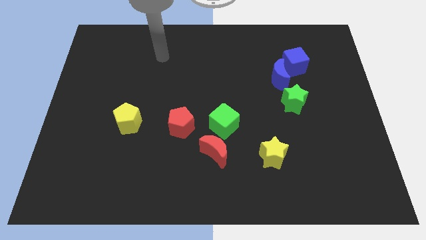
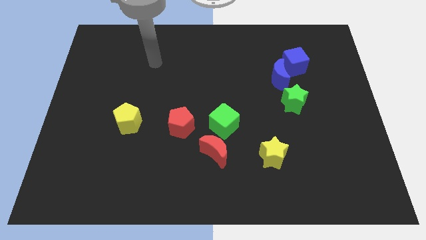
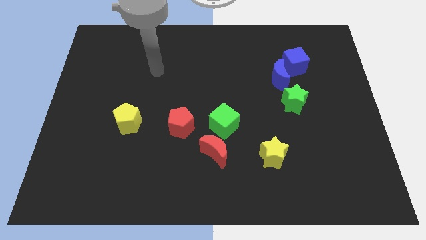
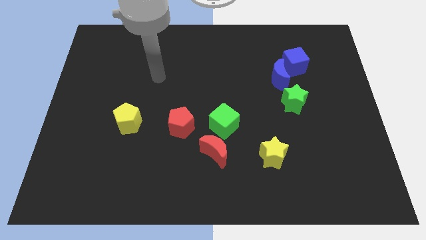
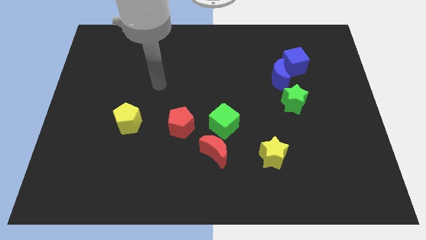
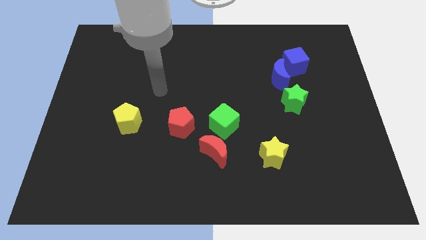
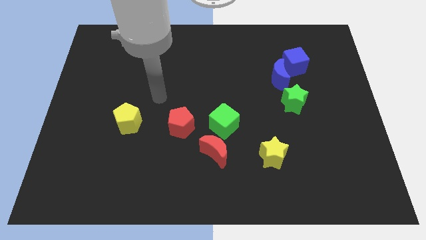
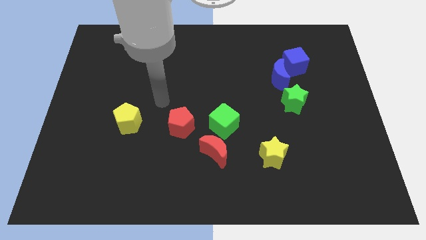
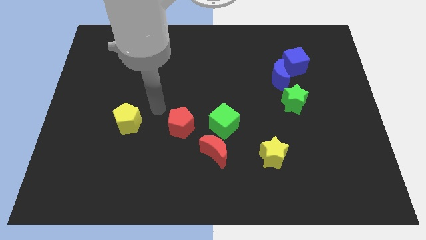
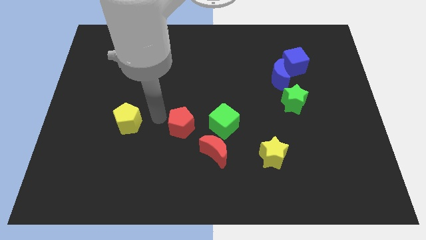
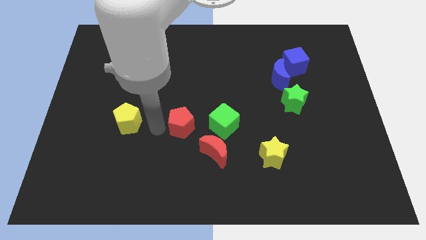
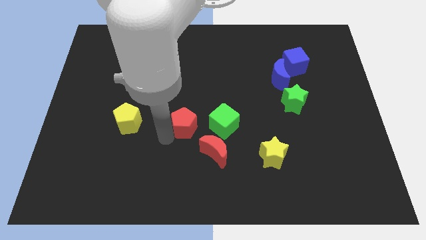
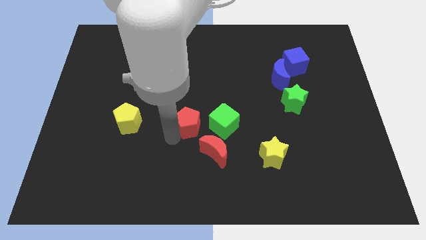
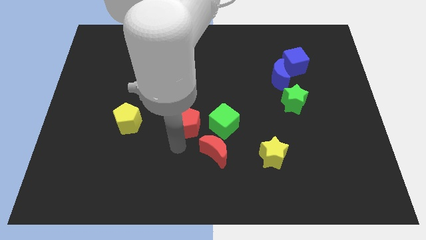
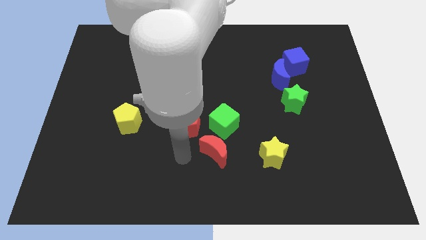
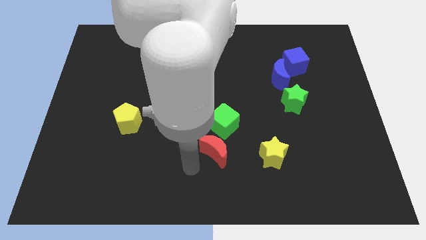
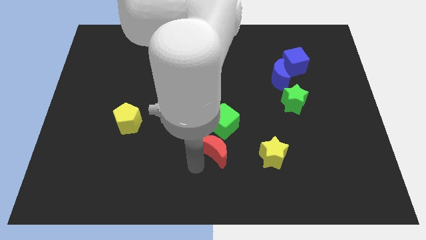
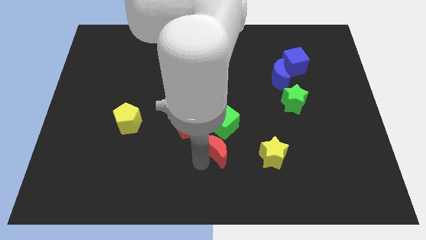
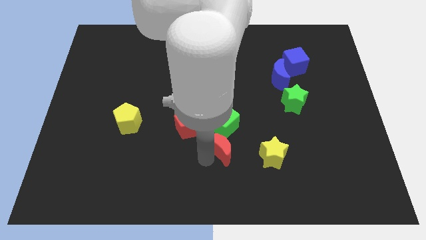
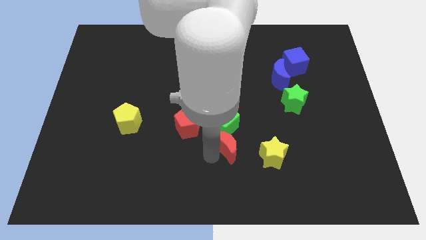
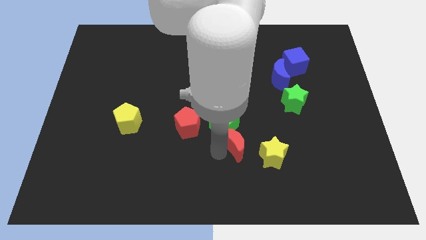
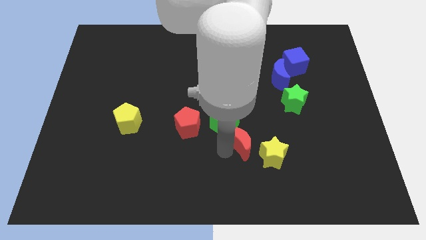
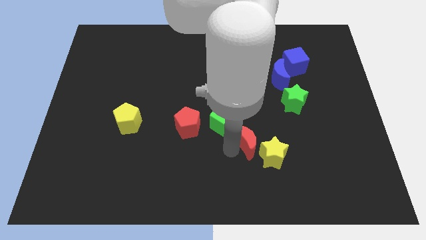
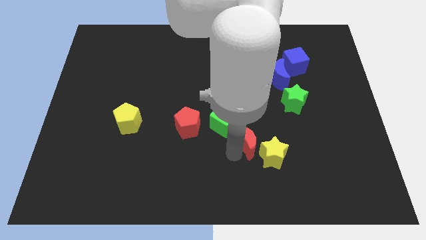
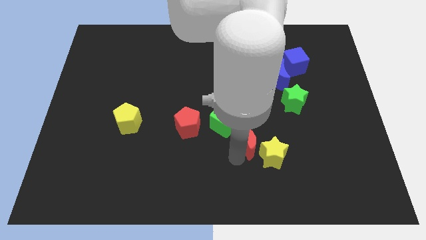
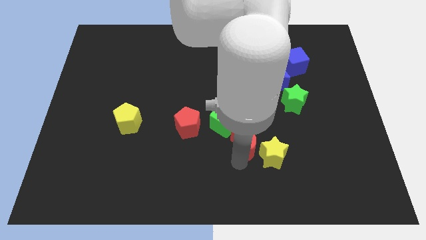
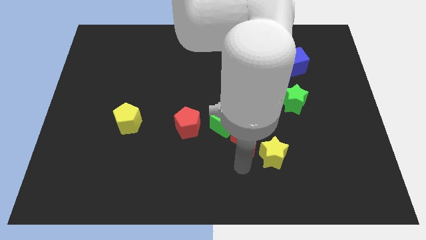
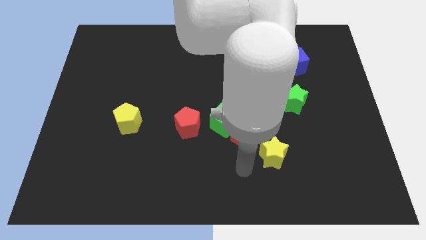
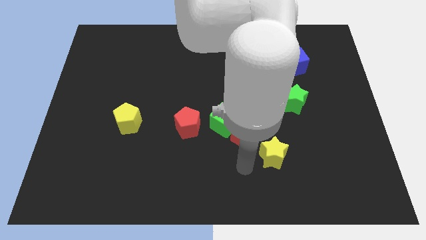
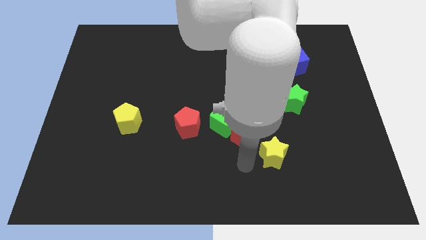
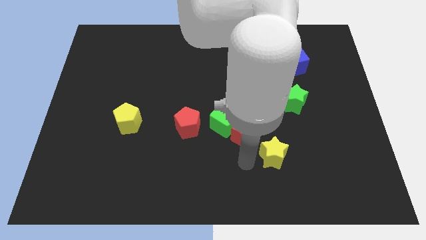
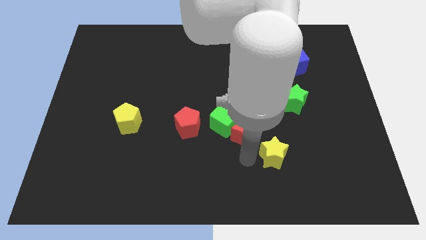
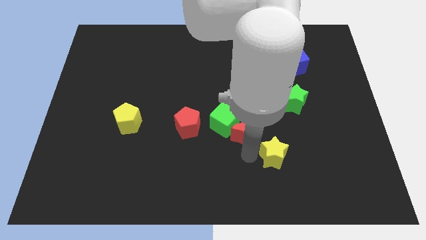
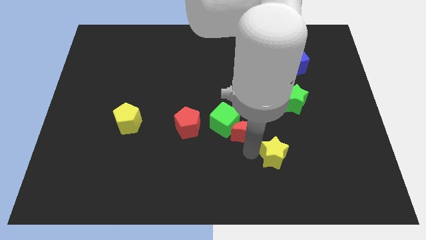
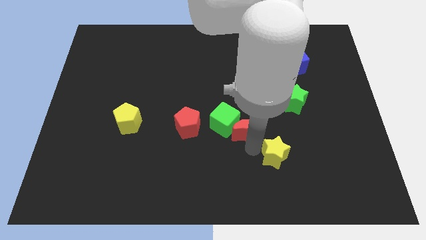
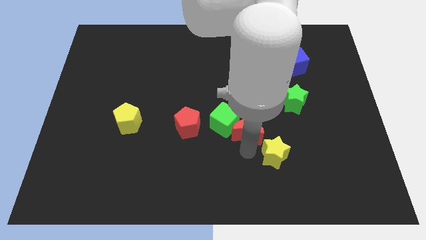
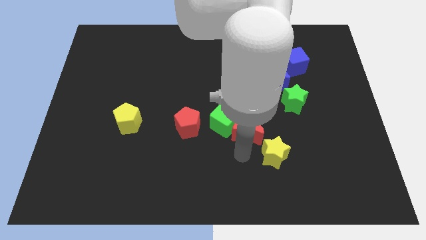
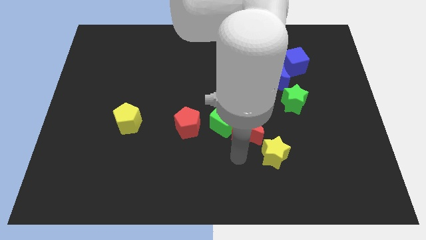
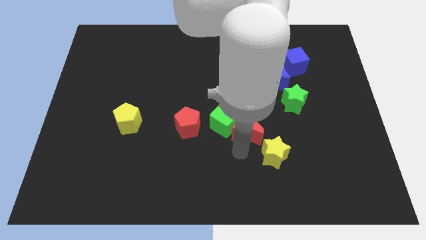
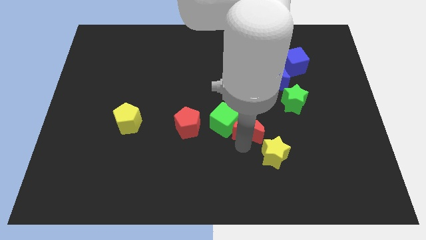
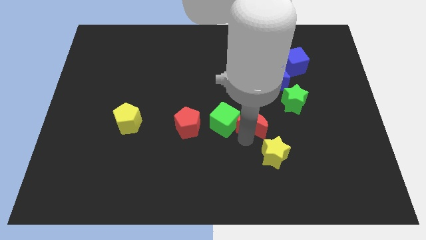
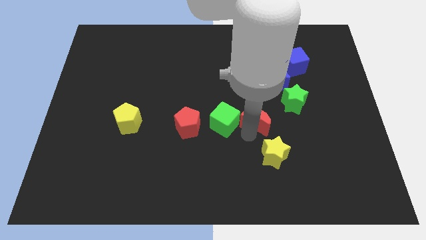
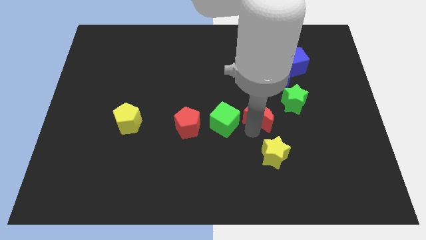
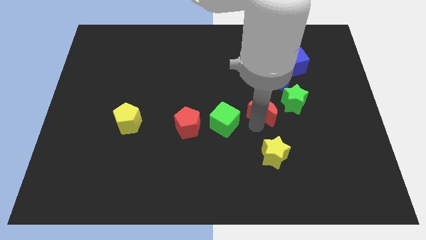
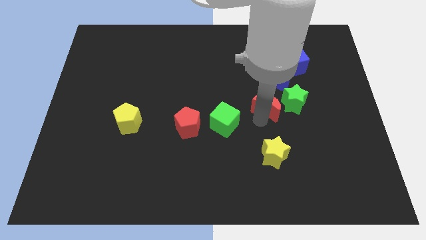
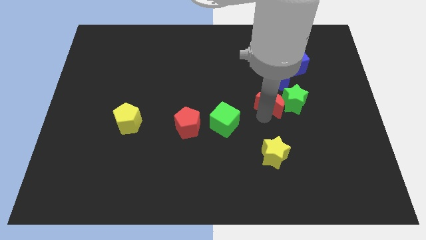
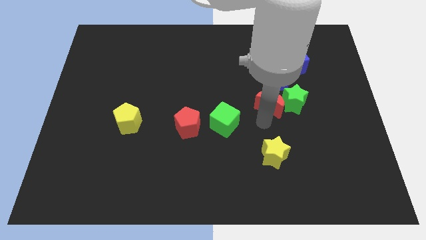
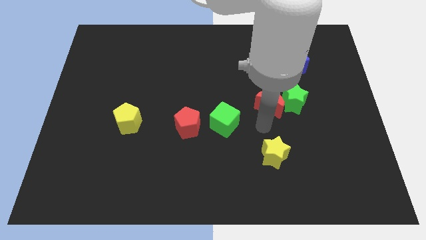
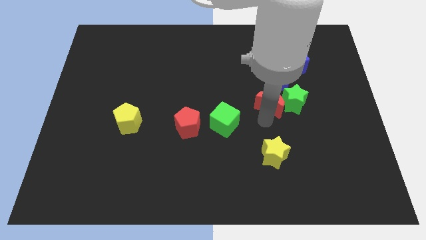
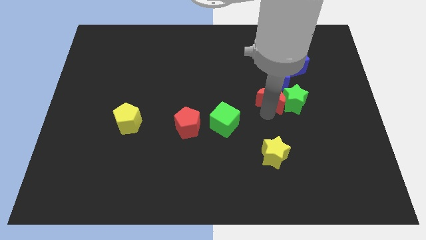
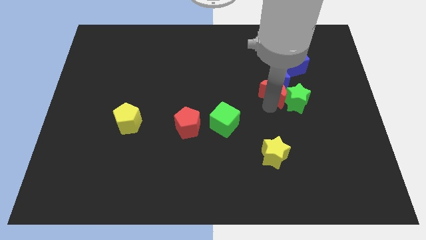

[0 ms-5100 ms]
move the red moon towards the blue moon

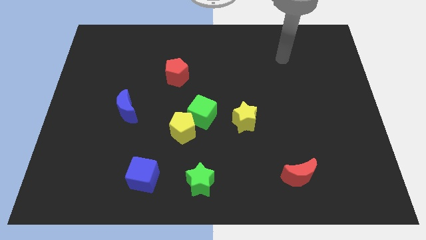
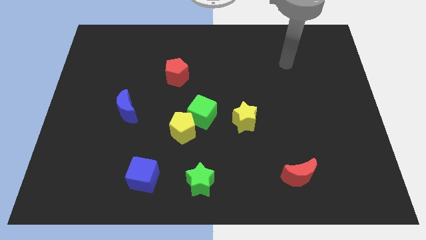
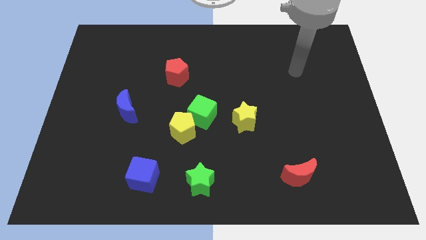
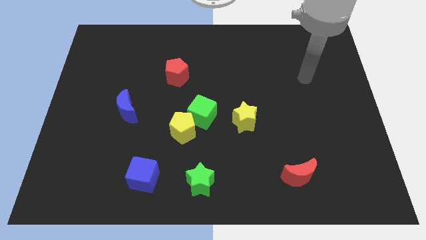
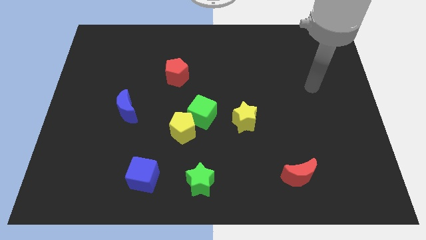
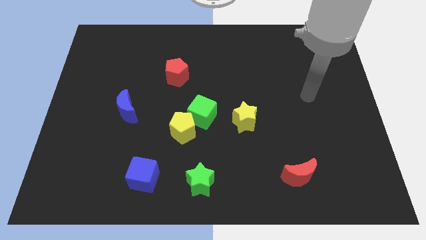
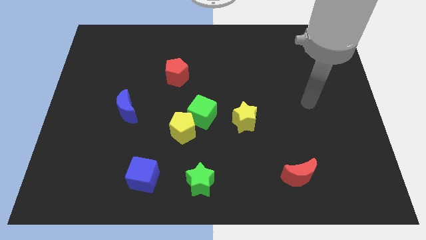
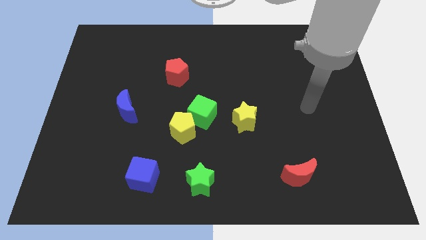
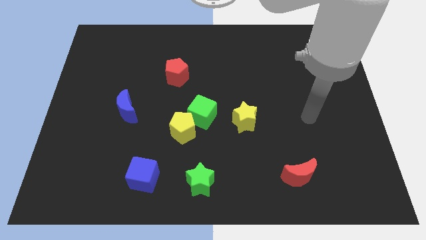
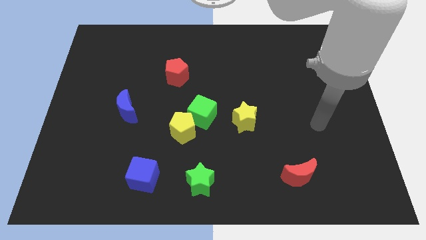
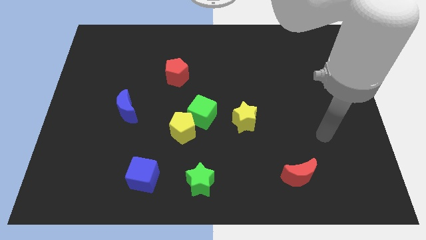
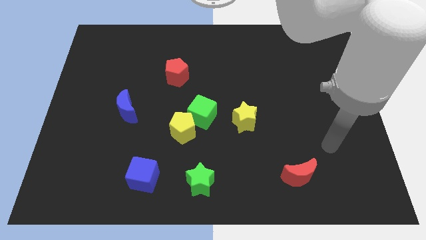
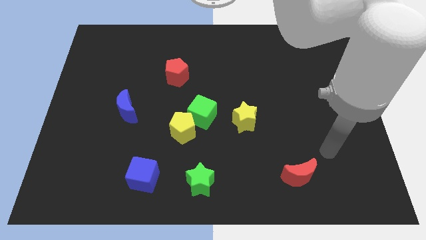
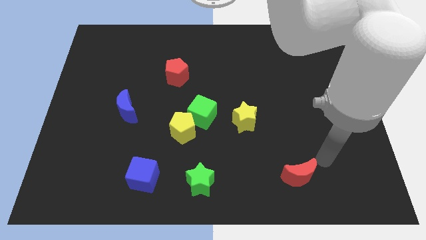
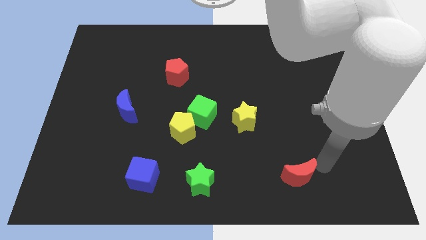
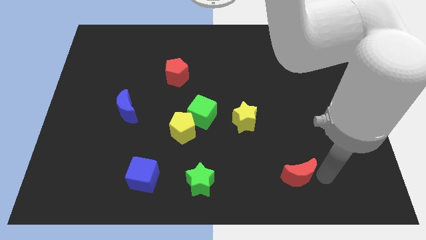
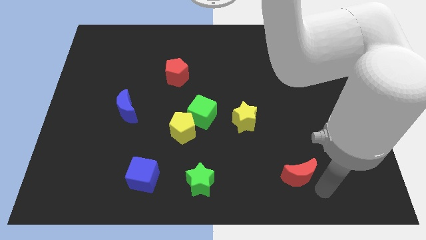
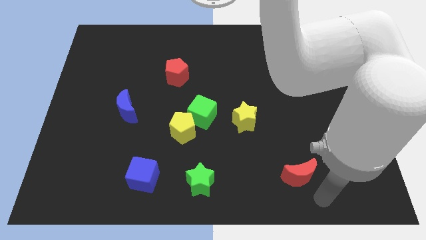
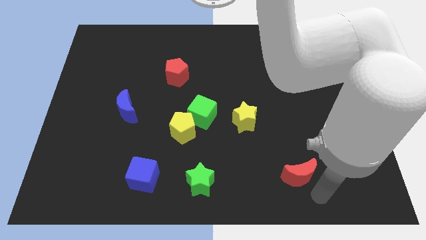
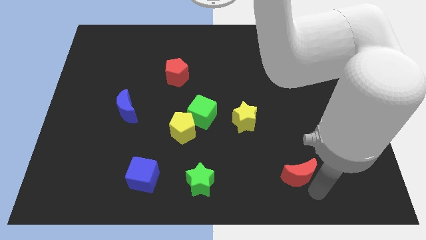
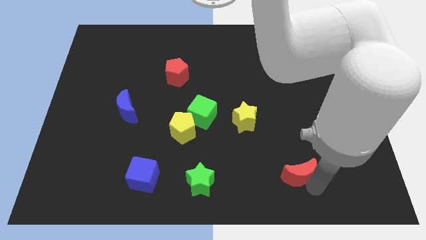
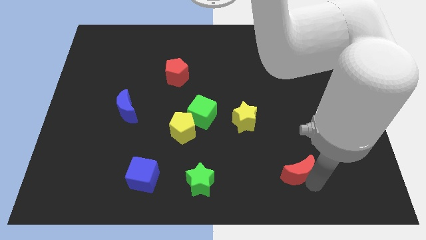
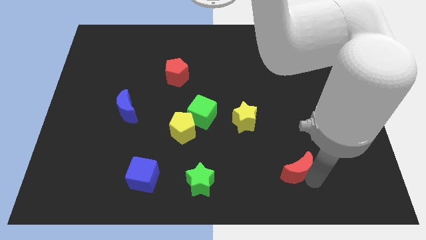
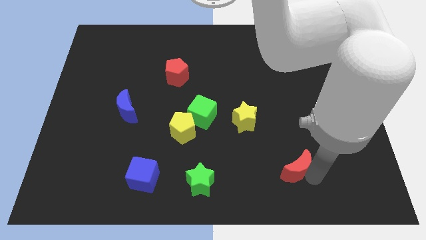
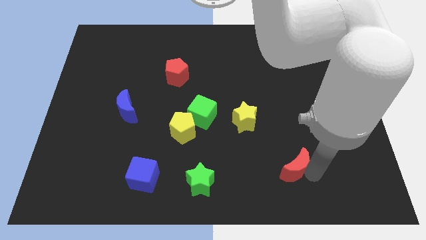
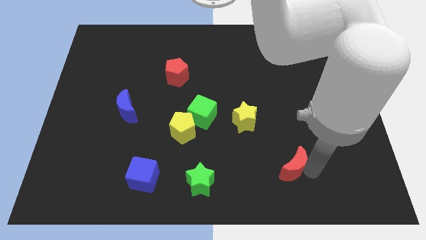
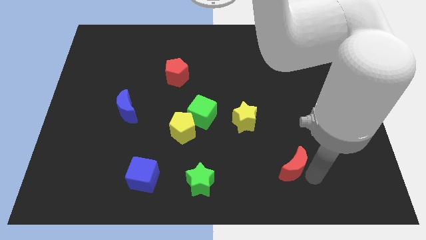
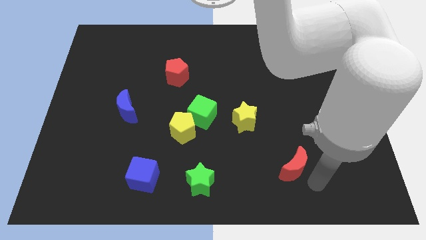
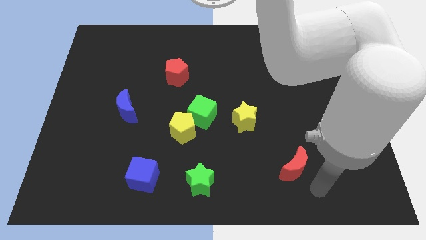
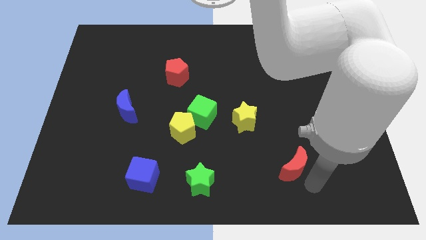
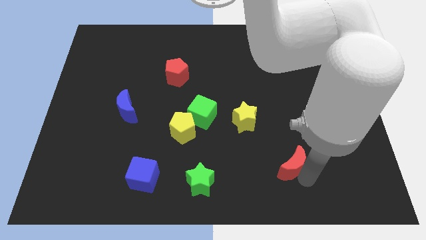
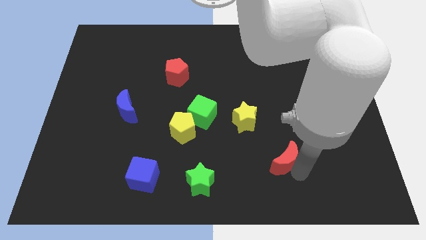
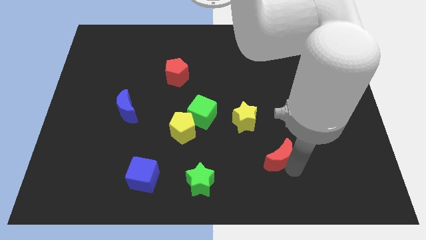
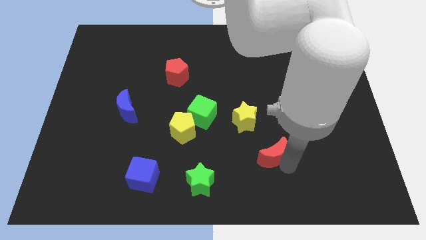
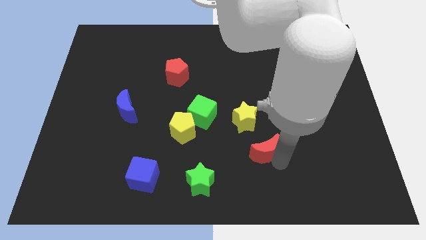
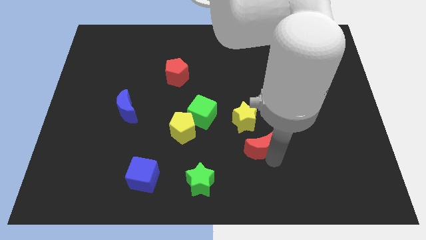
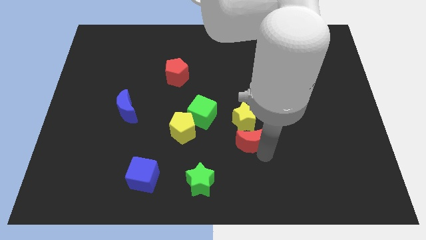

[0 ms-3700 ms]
move the red moon close to the yellow star
